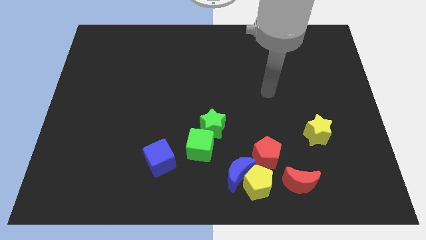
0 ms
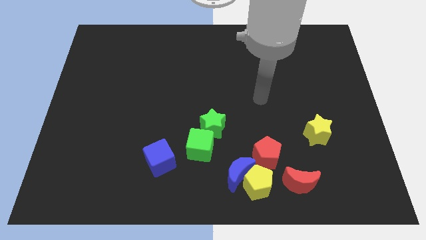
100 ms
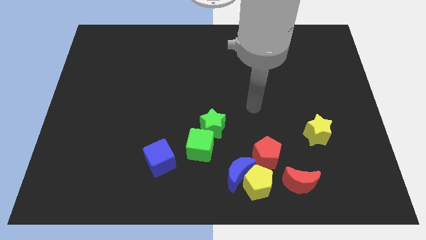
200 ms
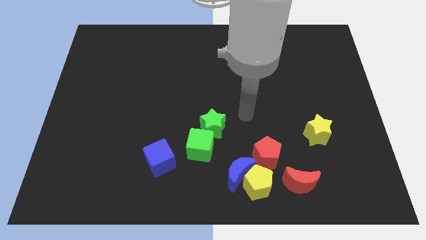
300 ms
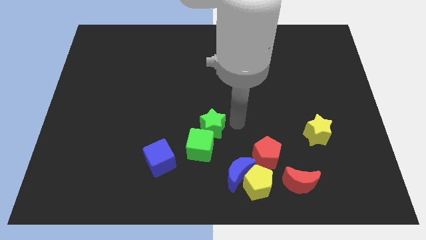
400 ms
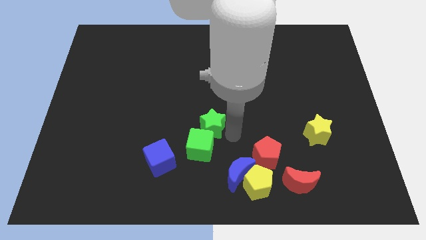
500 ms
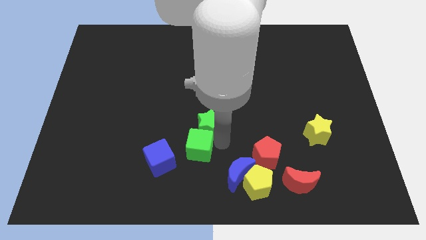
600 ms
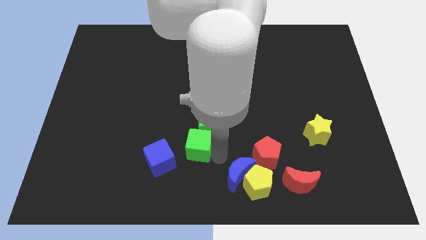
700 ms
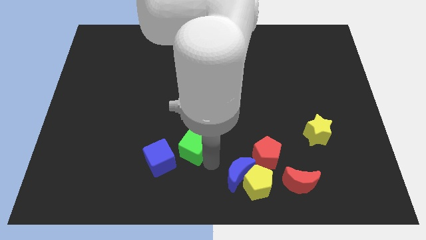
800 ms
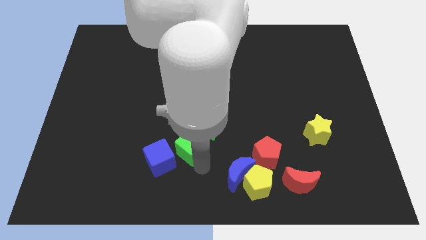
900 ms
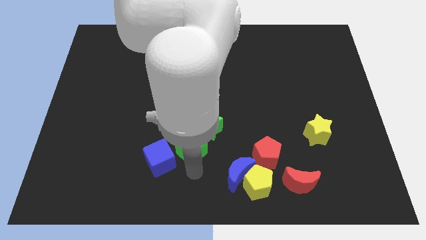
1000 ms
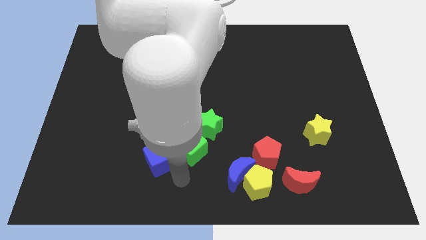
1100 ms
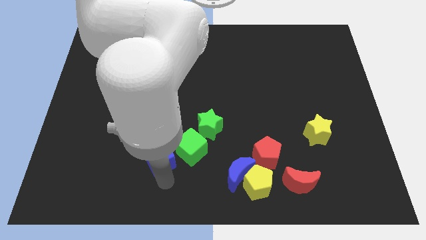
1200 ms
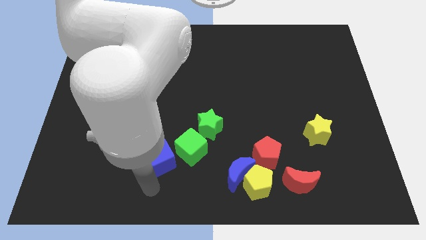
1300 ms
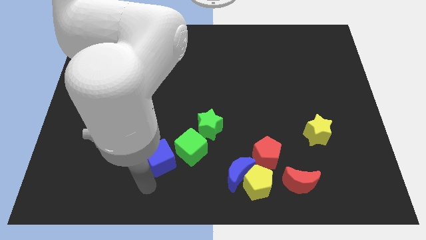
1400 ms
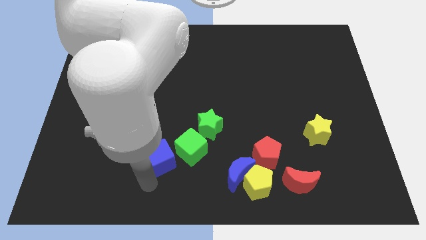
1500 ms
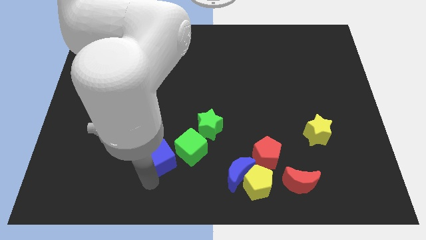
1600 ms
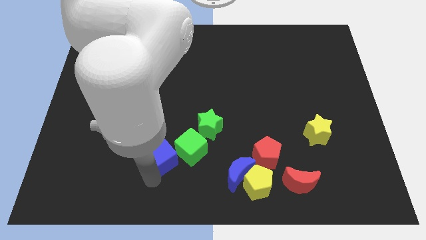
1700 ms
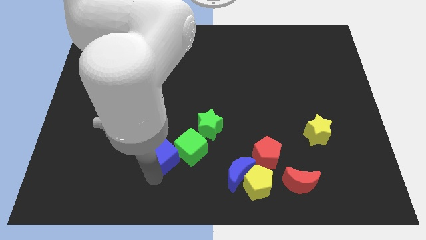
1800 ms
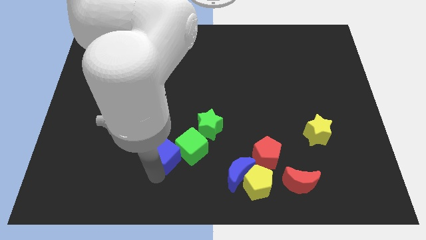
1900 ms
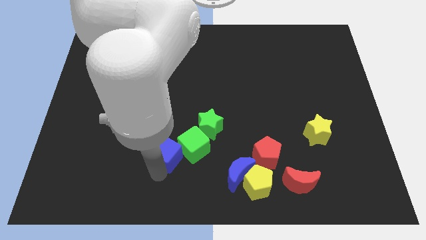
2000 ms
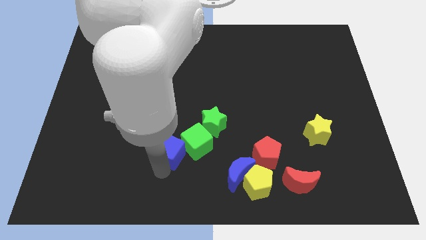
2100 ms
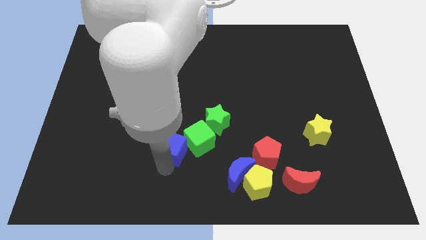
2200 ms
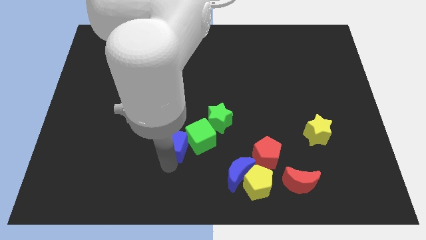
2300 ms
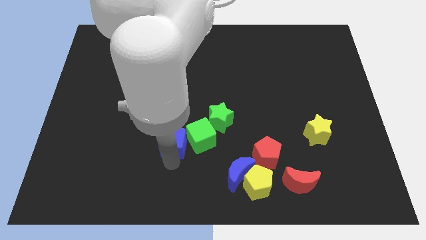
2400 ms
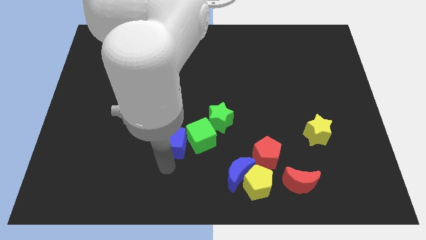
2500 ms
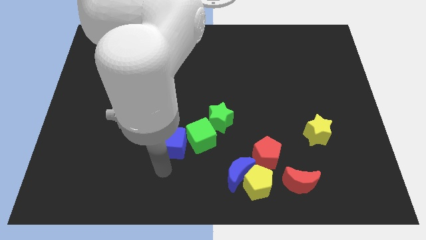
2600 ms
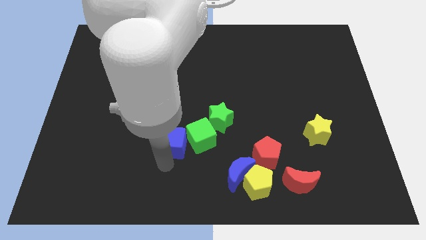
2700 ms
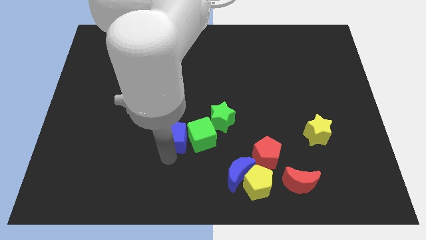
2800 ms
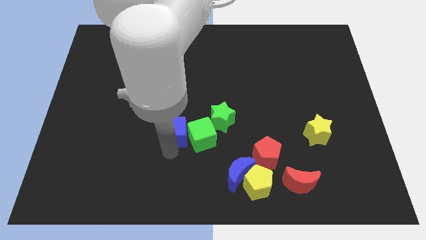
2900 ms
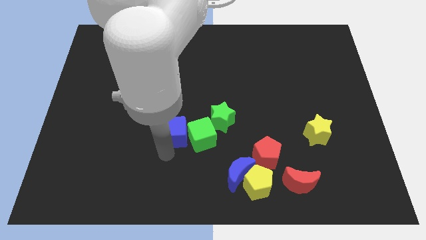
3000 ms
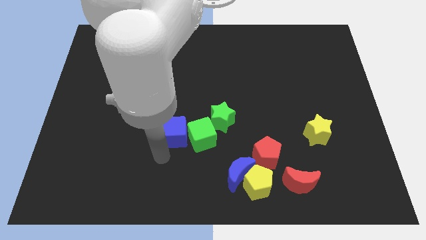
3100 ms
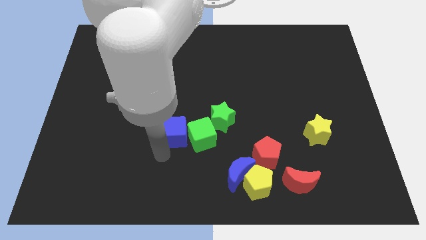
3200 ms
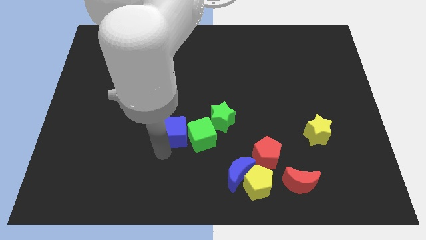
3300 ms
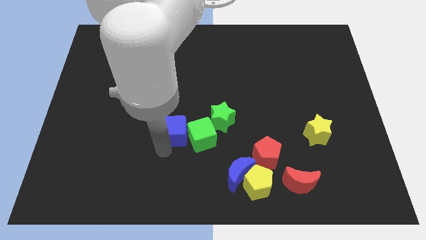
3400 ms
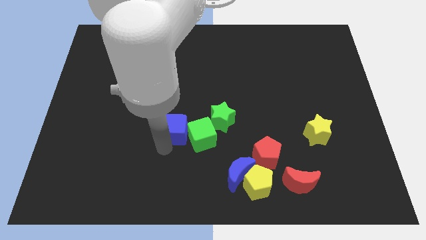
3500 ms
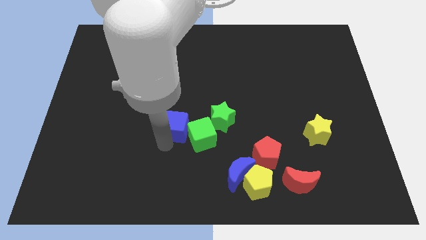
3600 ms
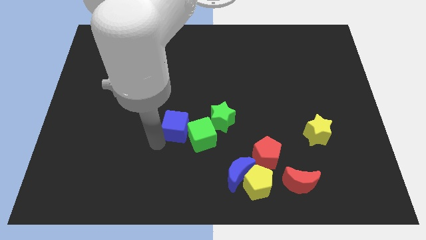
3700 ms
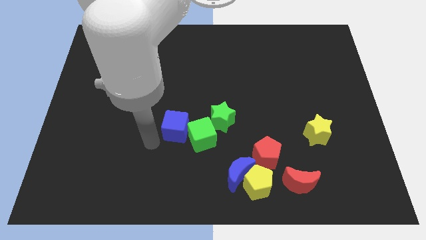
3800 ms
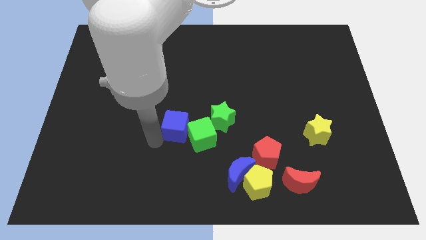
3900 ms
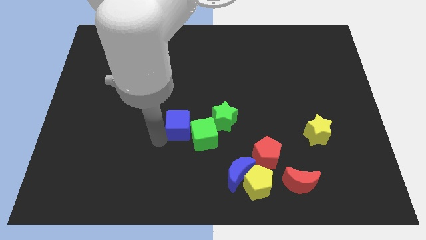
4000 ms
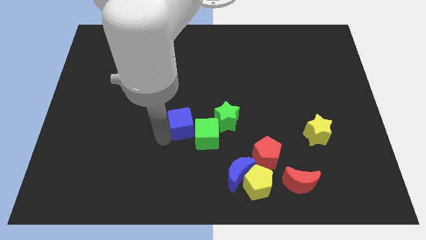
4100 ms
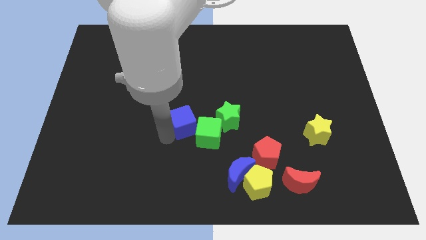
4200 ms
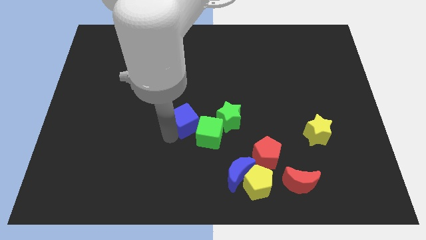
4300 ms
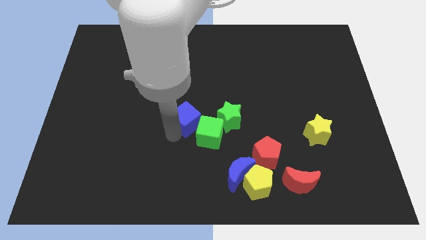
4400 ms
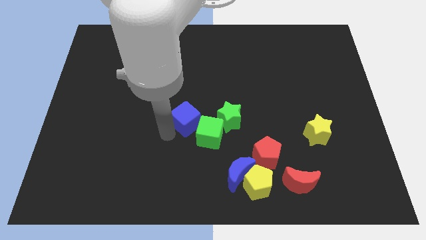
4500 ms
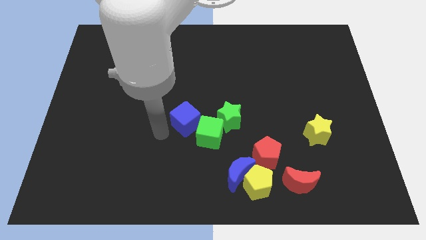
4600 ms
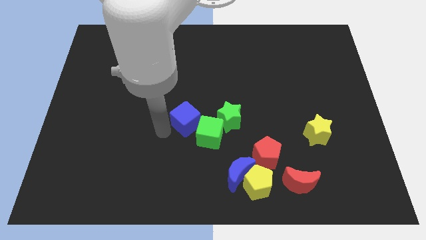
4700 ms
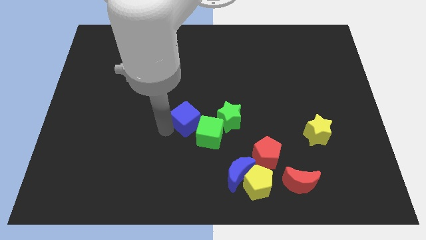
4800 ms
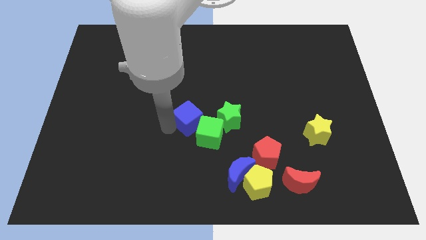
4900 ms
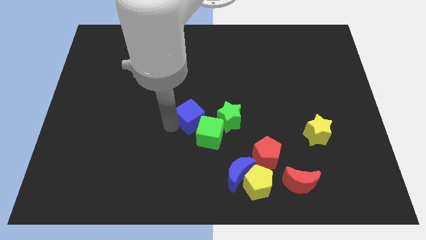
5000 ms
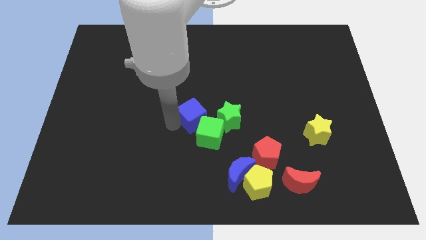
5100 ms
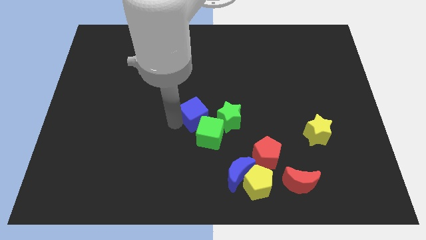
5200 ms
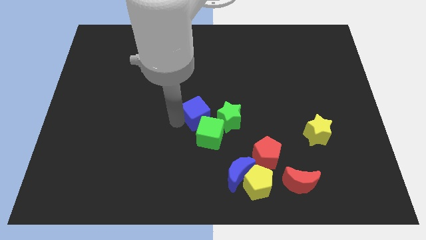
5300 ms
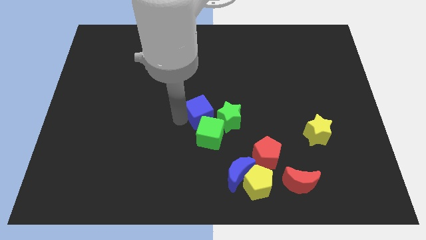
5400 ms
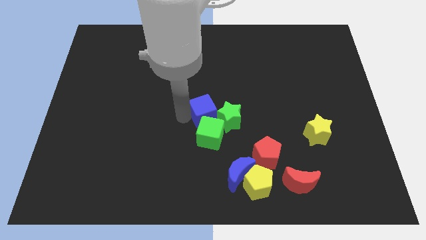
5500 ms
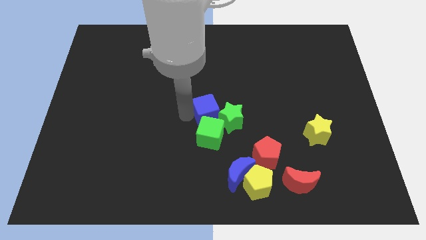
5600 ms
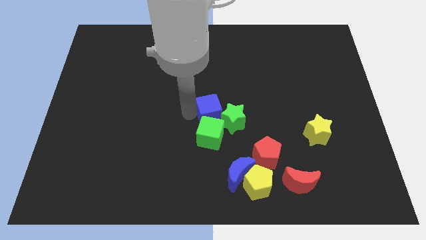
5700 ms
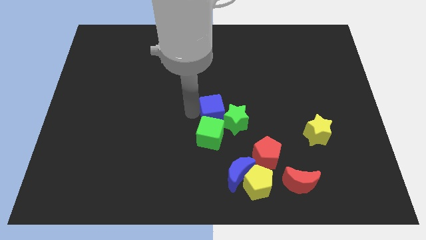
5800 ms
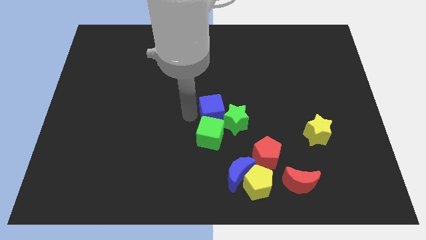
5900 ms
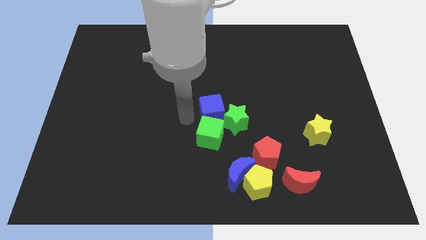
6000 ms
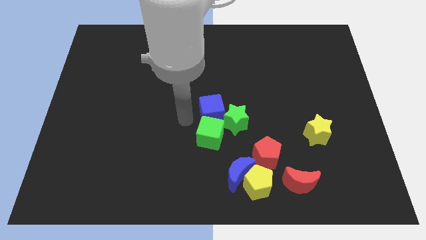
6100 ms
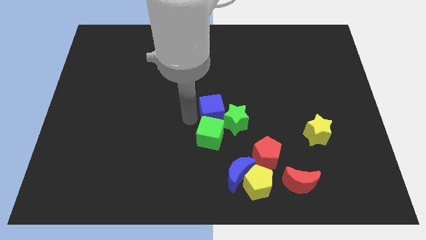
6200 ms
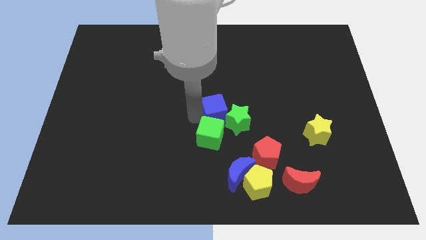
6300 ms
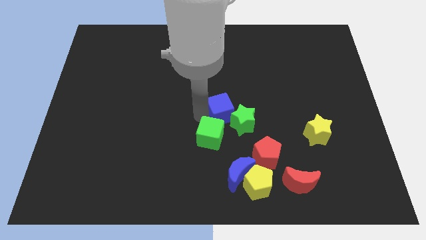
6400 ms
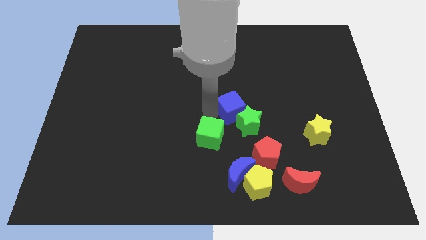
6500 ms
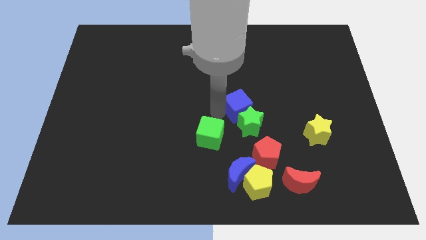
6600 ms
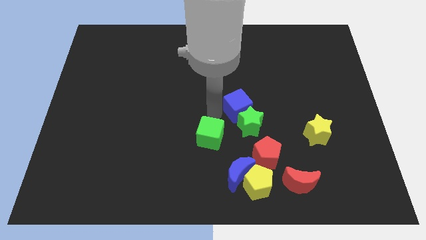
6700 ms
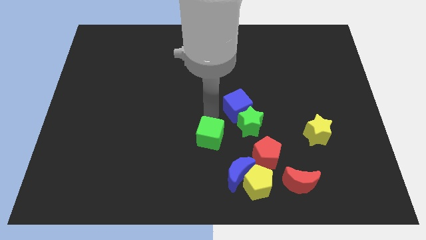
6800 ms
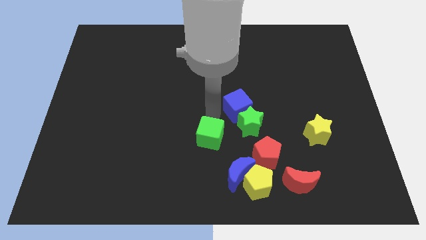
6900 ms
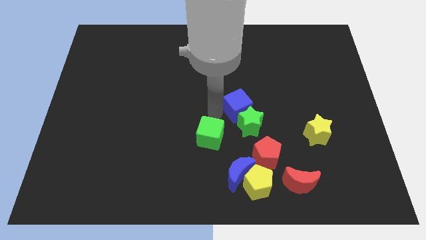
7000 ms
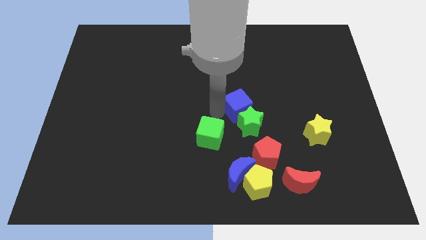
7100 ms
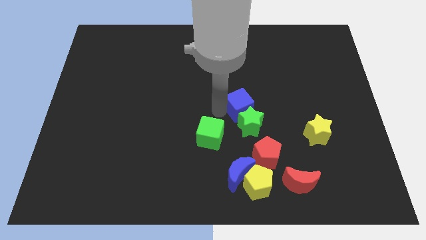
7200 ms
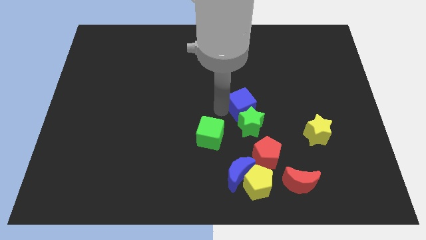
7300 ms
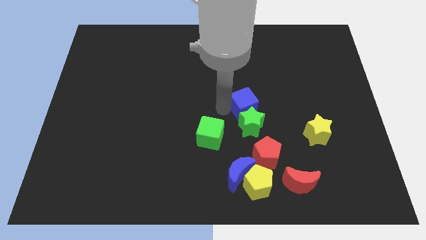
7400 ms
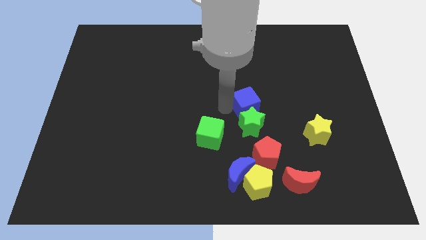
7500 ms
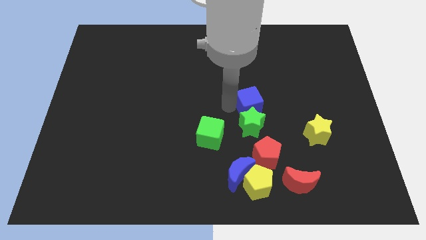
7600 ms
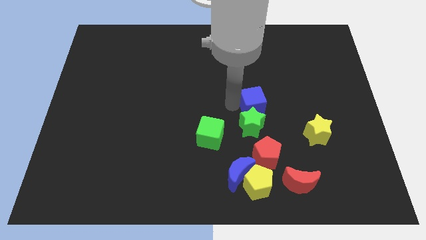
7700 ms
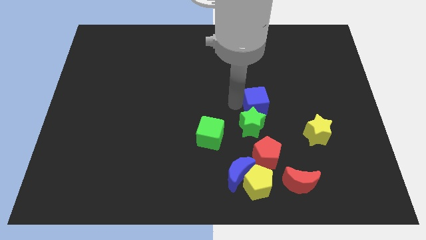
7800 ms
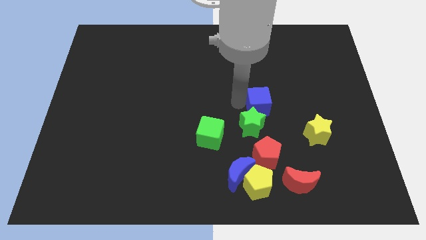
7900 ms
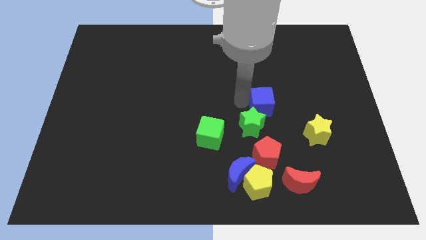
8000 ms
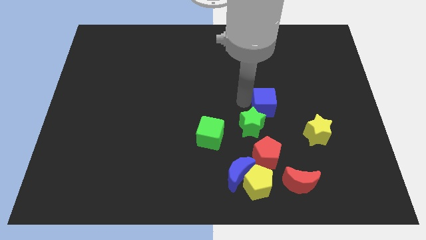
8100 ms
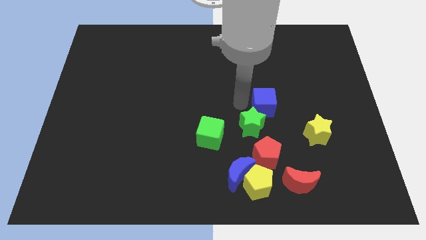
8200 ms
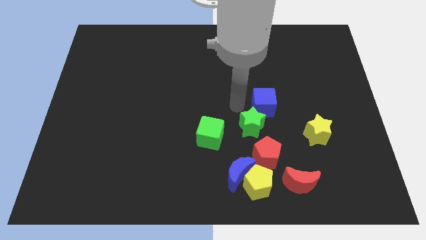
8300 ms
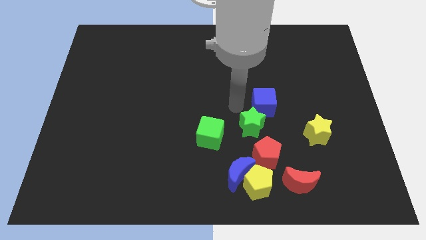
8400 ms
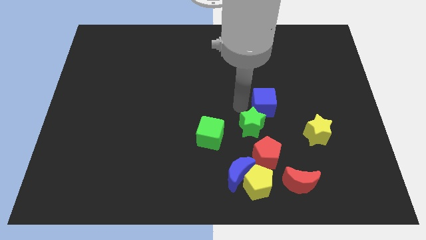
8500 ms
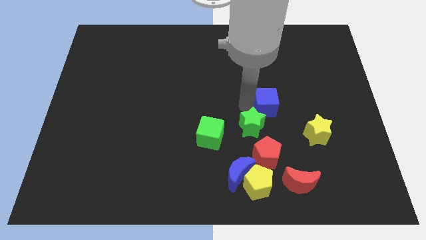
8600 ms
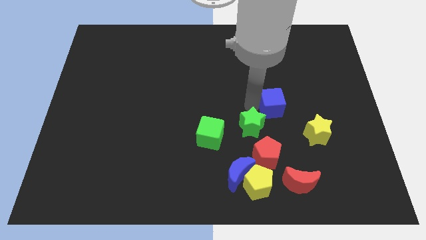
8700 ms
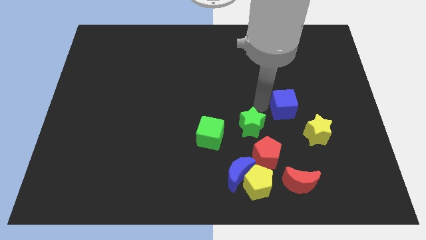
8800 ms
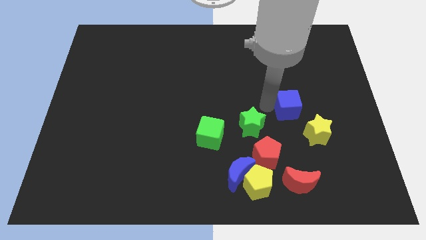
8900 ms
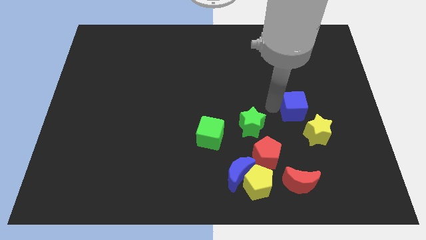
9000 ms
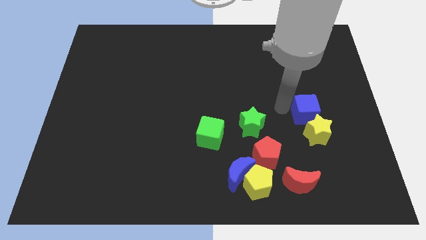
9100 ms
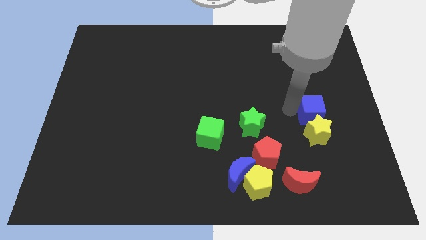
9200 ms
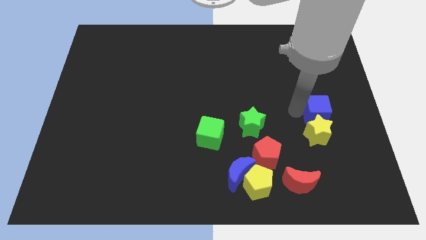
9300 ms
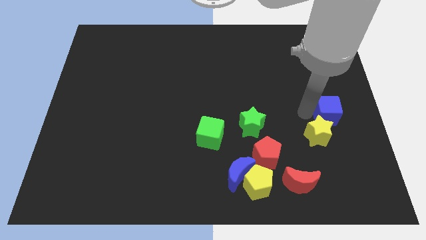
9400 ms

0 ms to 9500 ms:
move the blue cube to the center right
